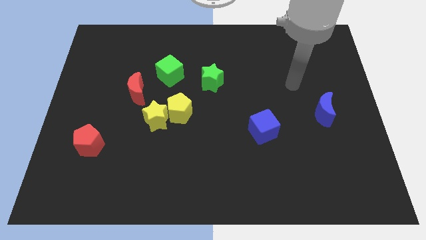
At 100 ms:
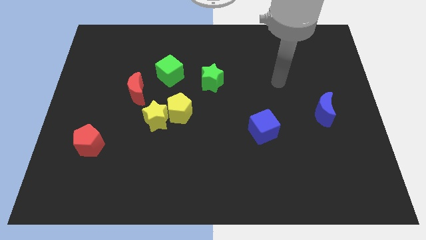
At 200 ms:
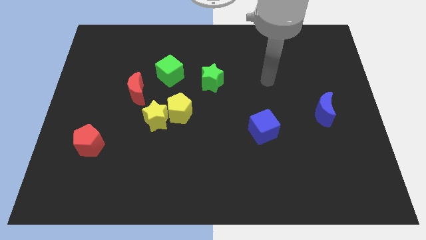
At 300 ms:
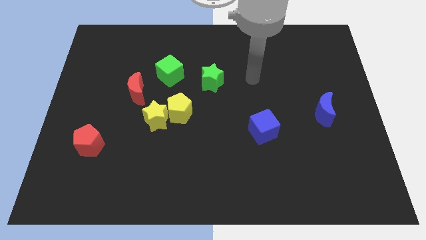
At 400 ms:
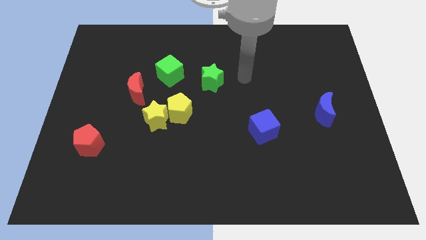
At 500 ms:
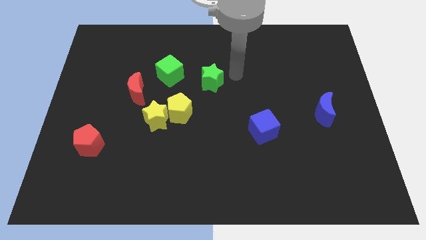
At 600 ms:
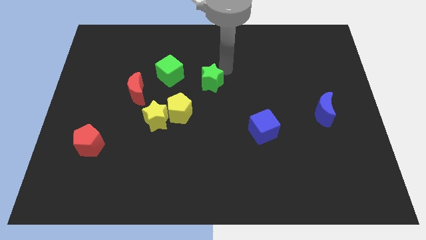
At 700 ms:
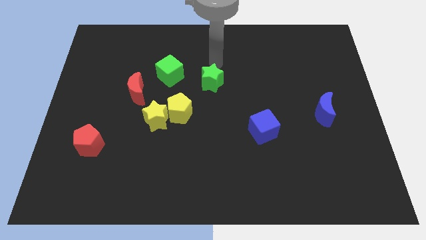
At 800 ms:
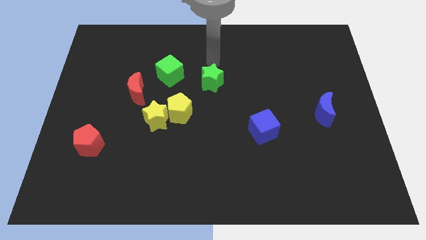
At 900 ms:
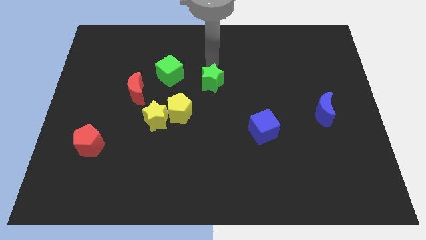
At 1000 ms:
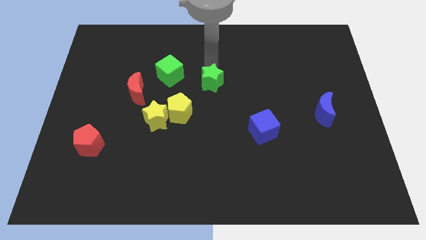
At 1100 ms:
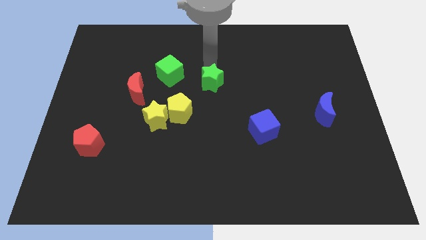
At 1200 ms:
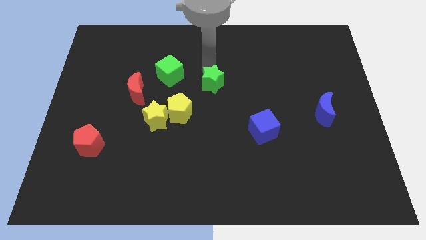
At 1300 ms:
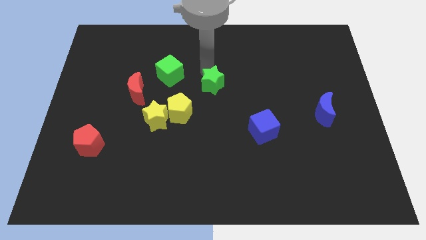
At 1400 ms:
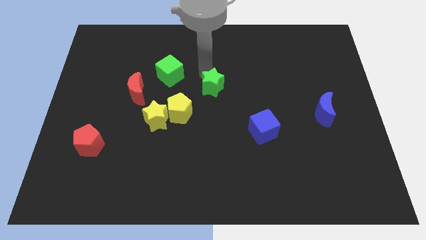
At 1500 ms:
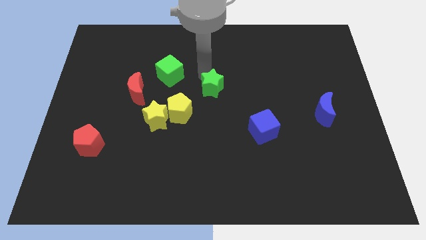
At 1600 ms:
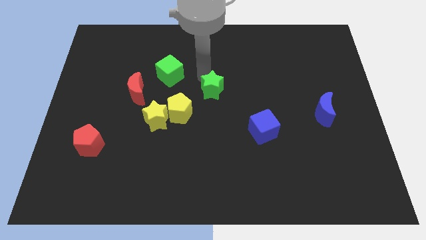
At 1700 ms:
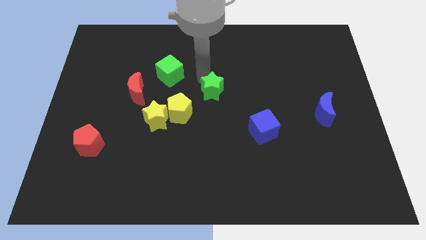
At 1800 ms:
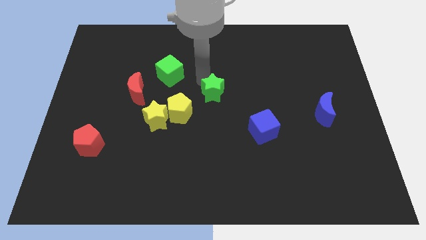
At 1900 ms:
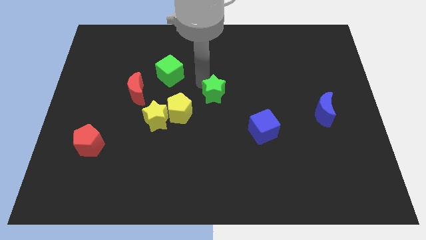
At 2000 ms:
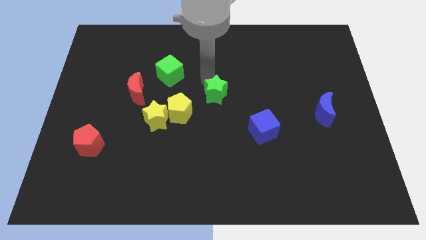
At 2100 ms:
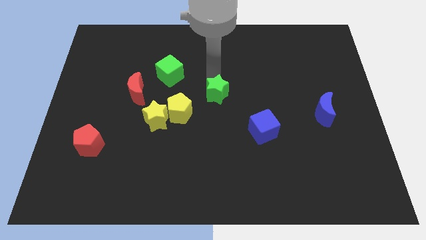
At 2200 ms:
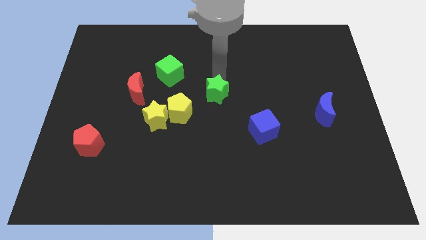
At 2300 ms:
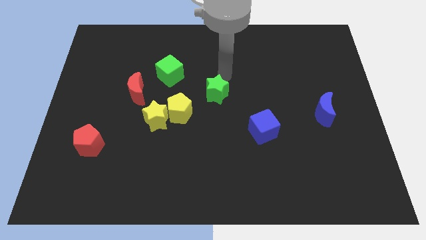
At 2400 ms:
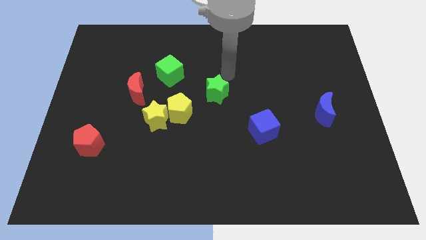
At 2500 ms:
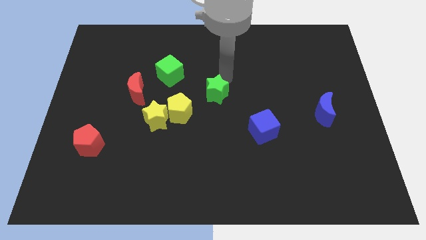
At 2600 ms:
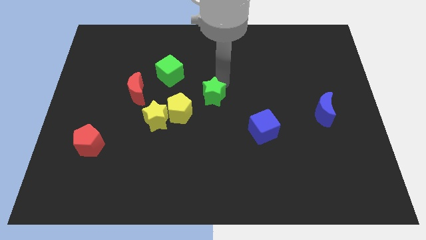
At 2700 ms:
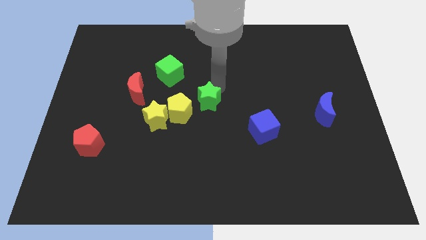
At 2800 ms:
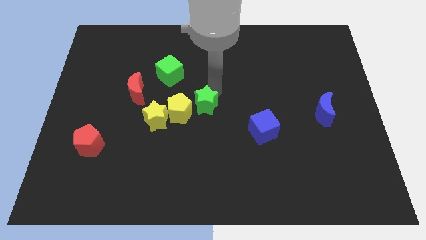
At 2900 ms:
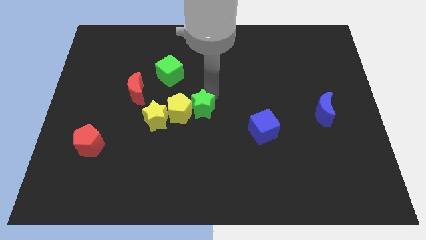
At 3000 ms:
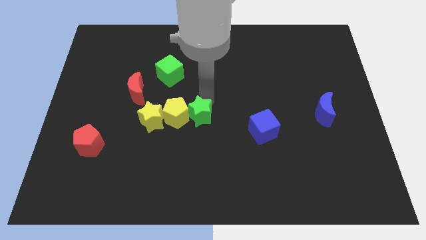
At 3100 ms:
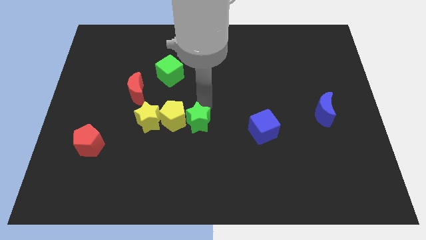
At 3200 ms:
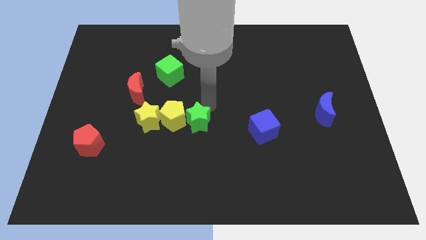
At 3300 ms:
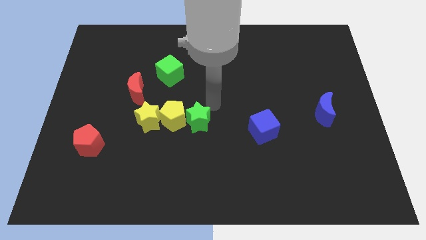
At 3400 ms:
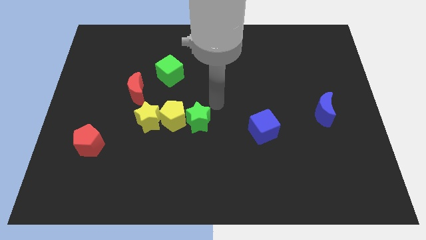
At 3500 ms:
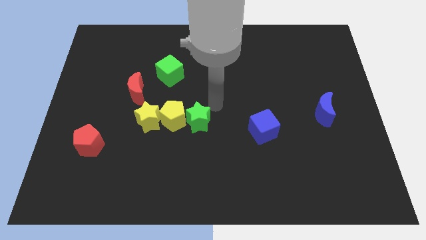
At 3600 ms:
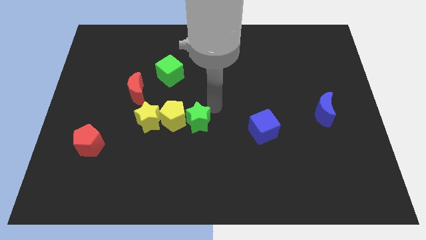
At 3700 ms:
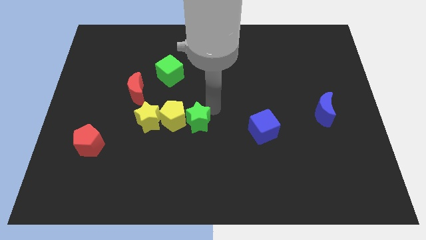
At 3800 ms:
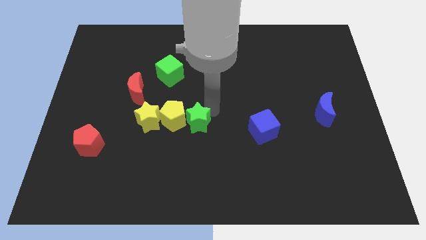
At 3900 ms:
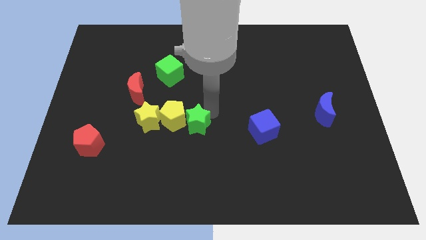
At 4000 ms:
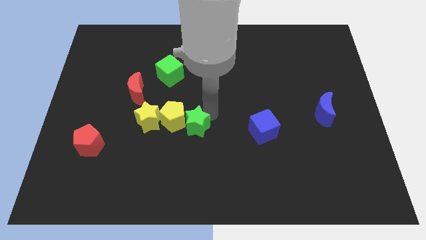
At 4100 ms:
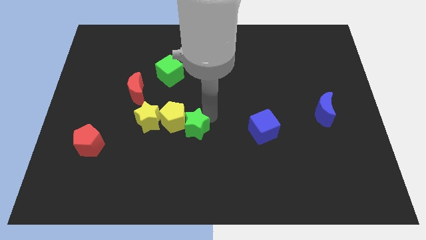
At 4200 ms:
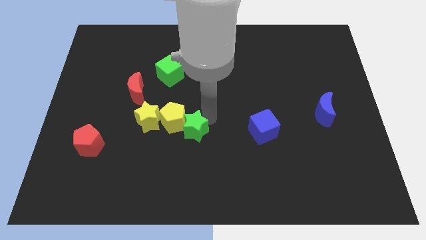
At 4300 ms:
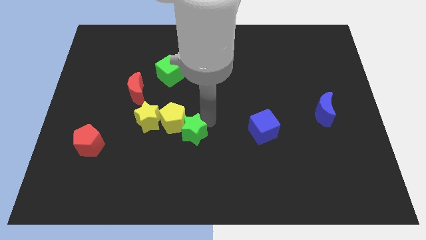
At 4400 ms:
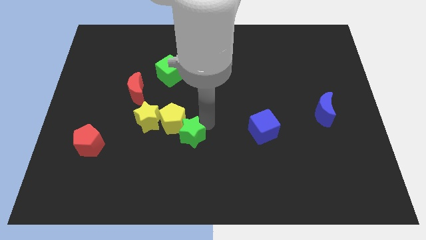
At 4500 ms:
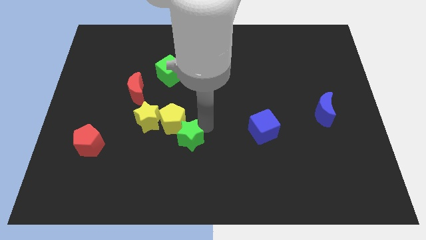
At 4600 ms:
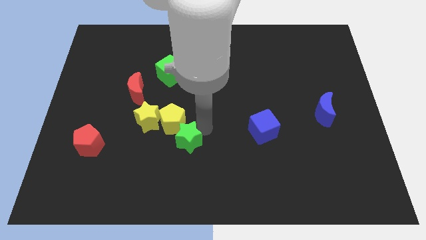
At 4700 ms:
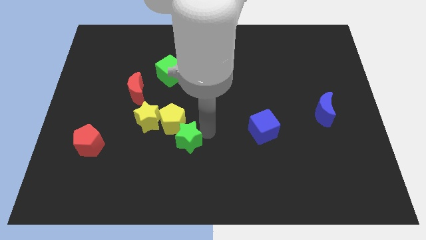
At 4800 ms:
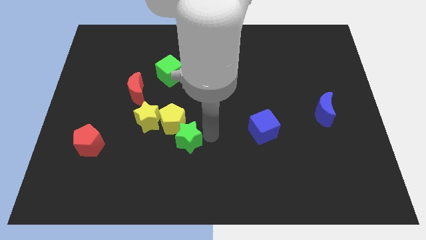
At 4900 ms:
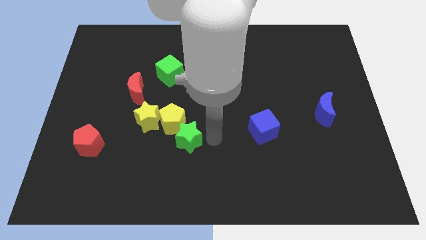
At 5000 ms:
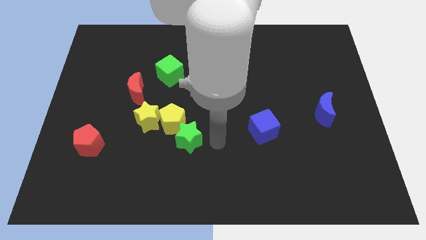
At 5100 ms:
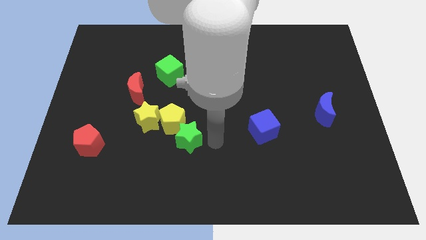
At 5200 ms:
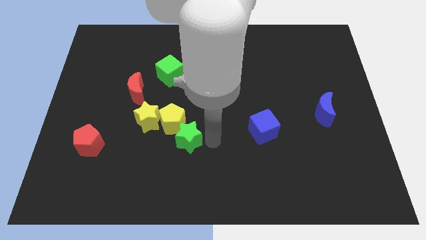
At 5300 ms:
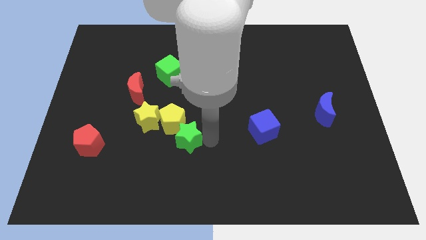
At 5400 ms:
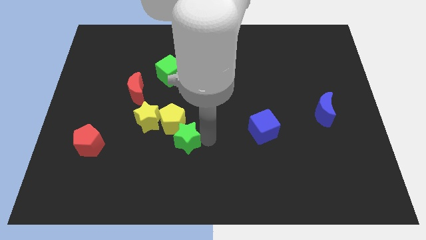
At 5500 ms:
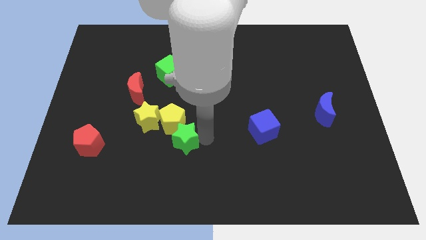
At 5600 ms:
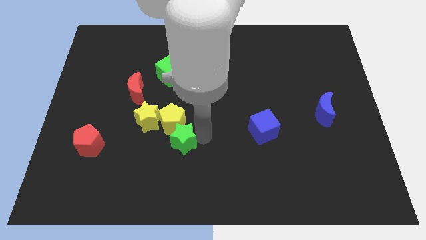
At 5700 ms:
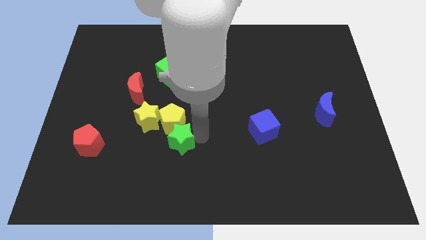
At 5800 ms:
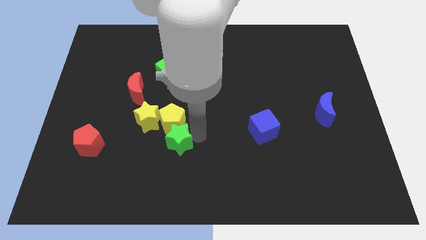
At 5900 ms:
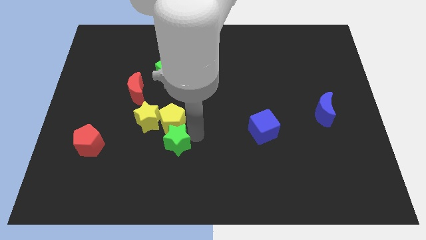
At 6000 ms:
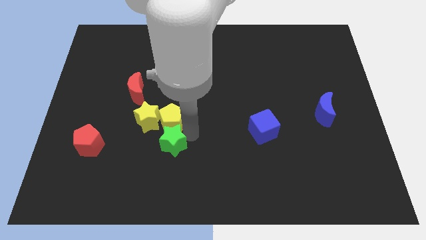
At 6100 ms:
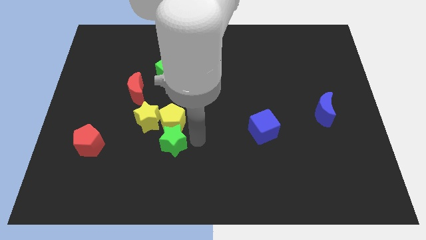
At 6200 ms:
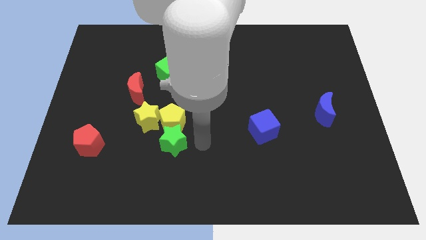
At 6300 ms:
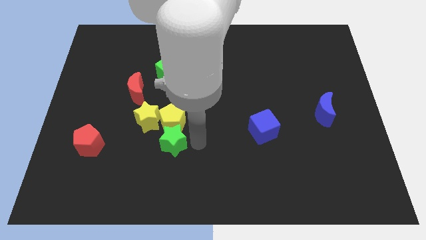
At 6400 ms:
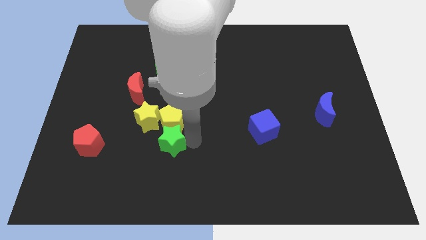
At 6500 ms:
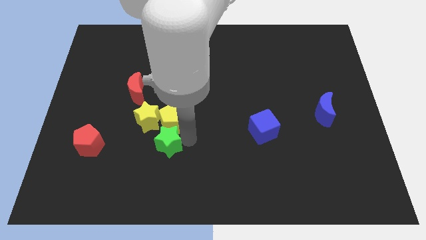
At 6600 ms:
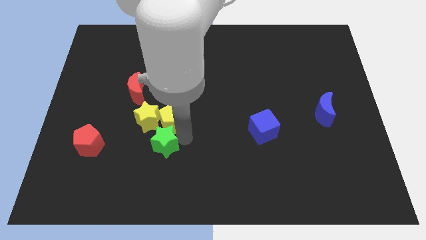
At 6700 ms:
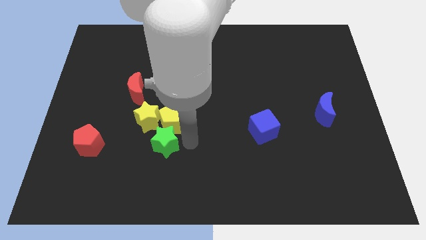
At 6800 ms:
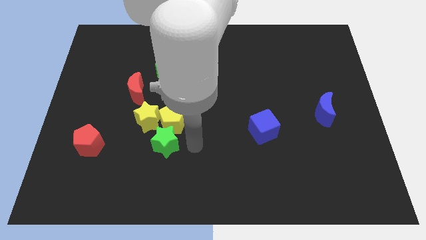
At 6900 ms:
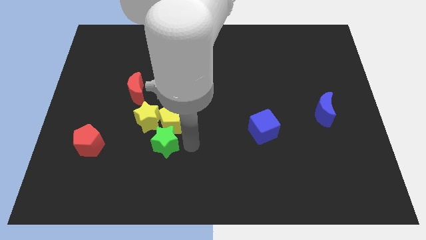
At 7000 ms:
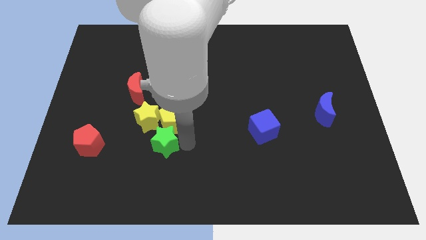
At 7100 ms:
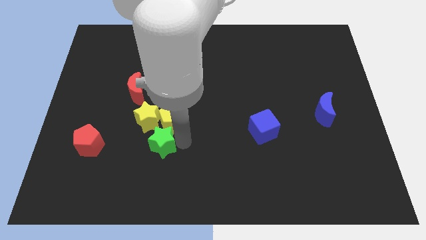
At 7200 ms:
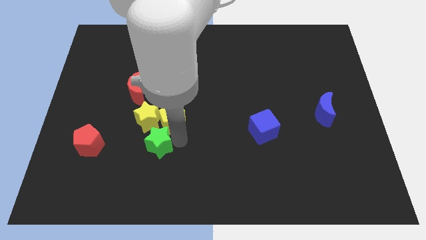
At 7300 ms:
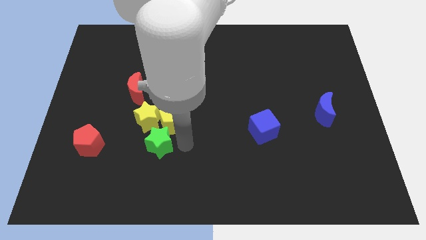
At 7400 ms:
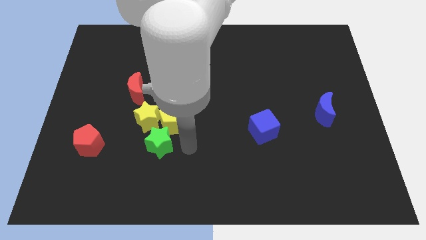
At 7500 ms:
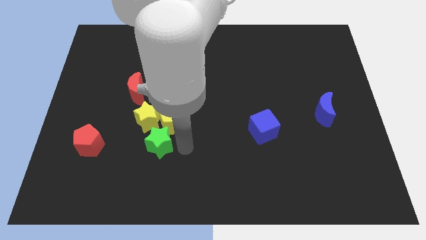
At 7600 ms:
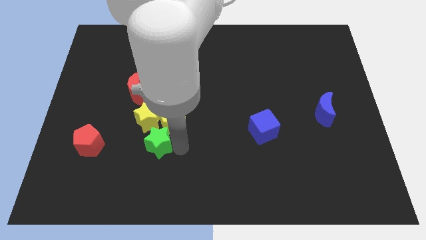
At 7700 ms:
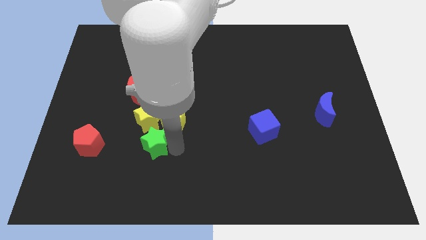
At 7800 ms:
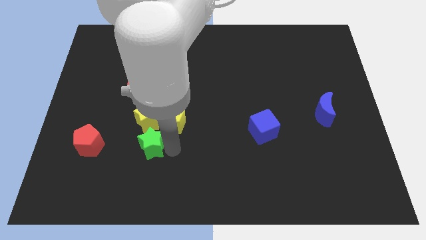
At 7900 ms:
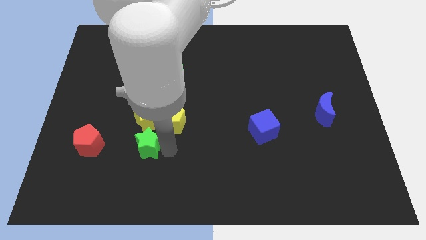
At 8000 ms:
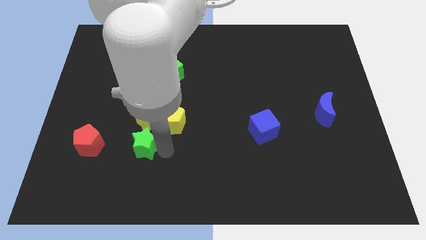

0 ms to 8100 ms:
push the green star to the bottom left of the yellow star
